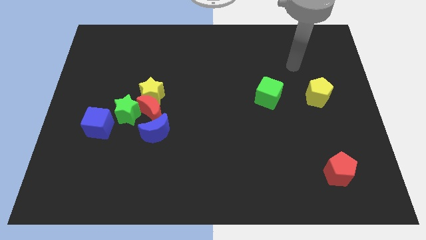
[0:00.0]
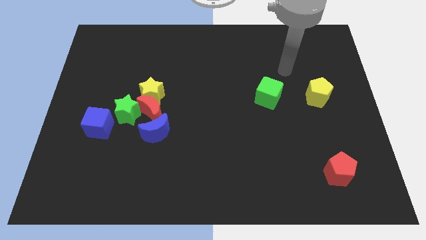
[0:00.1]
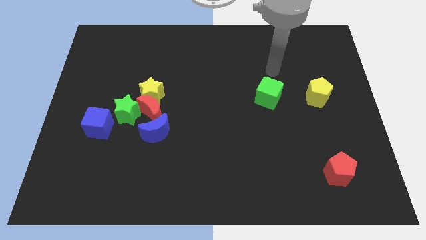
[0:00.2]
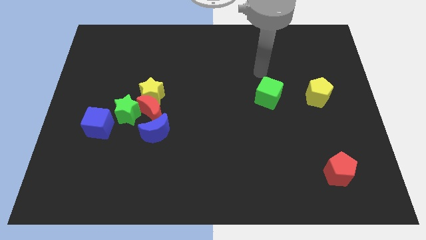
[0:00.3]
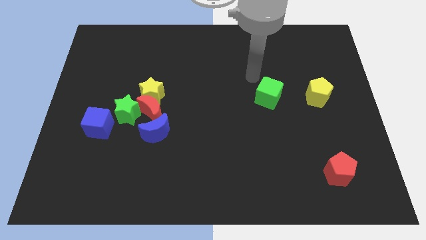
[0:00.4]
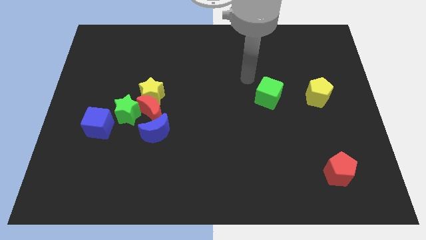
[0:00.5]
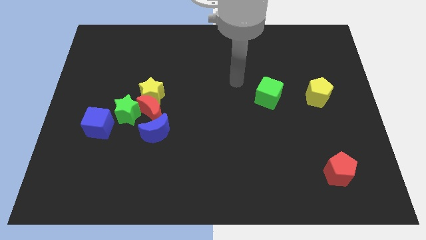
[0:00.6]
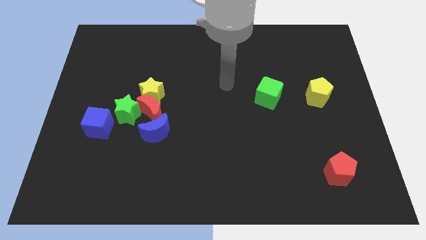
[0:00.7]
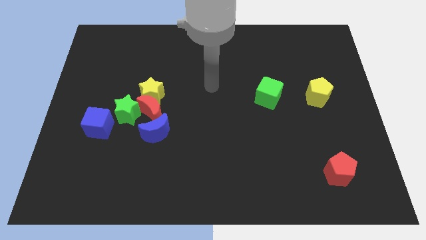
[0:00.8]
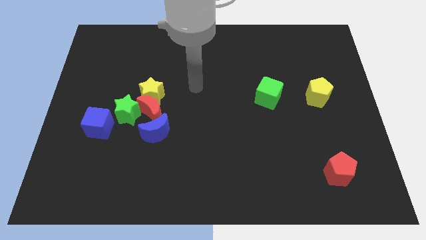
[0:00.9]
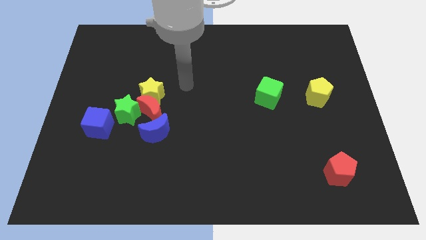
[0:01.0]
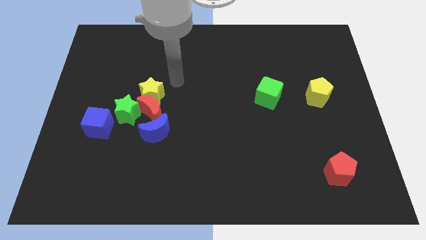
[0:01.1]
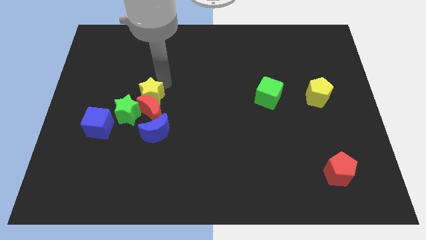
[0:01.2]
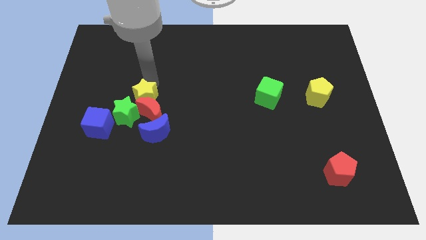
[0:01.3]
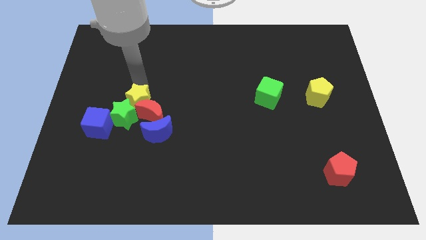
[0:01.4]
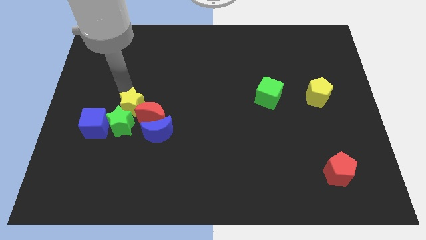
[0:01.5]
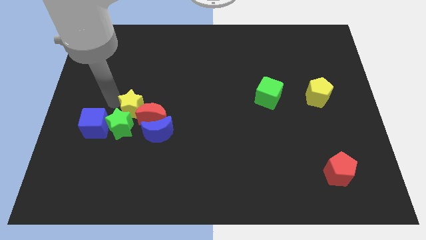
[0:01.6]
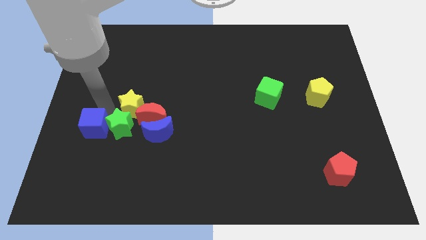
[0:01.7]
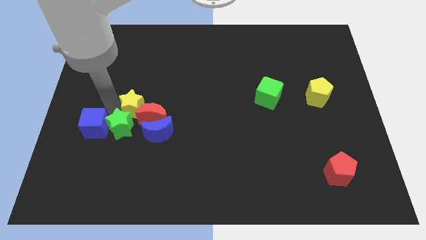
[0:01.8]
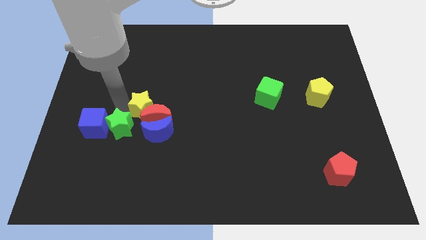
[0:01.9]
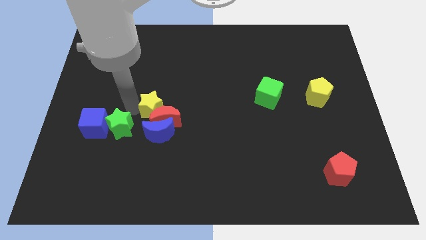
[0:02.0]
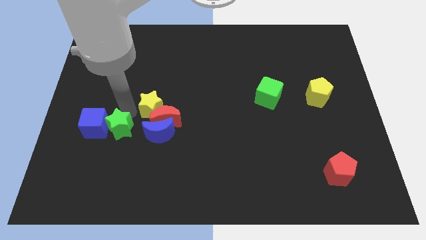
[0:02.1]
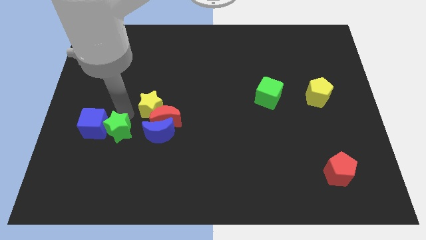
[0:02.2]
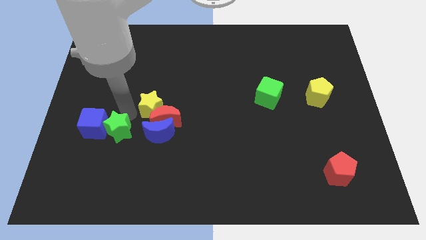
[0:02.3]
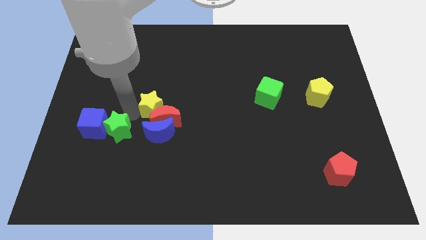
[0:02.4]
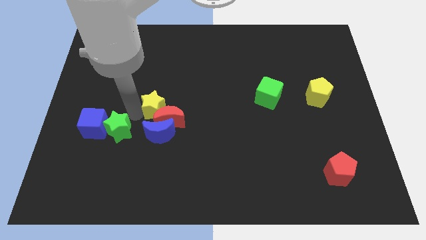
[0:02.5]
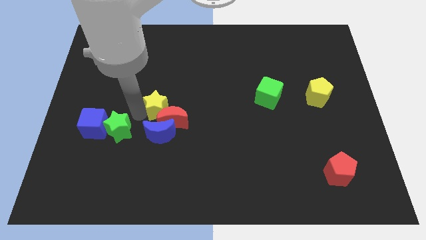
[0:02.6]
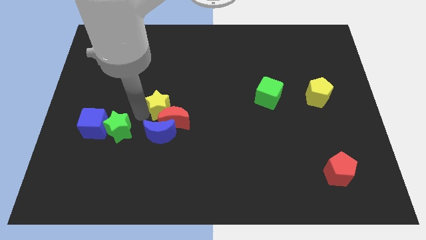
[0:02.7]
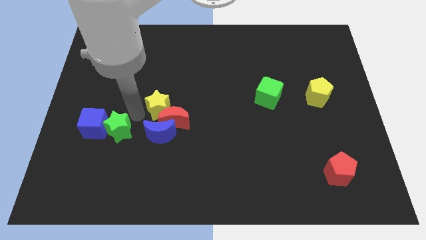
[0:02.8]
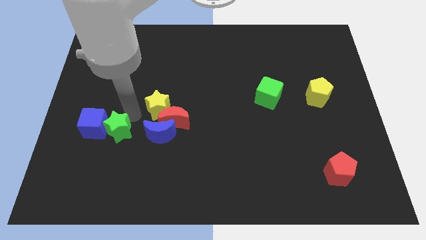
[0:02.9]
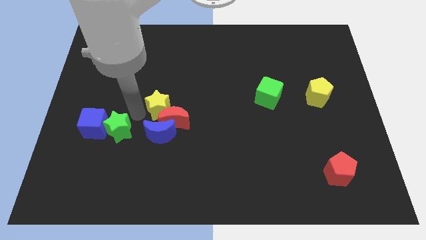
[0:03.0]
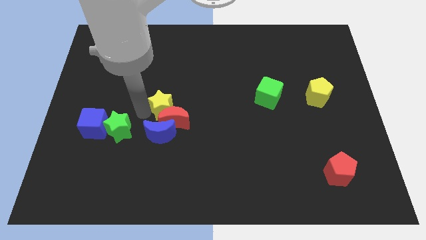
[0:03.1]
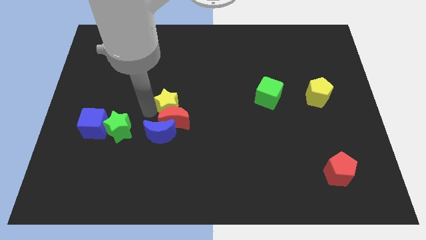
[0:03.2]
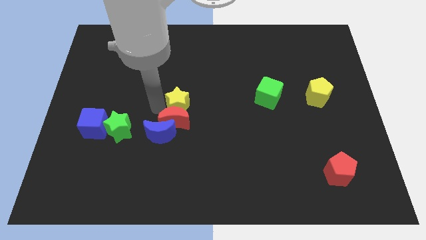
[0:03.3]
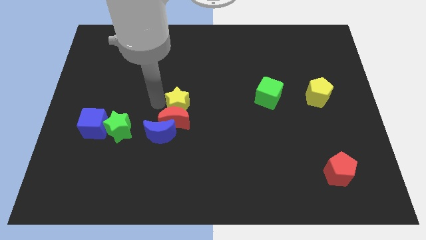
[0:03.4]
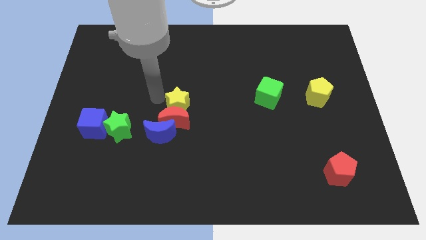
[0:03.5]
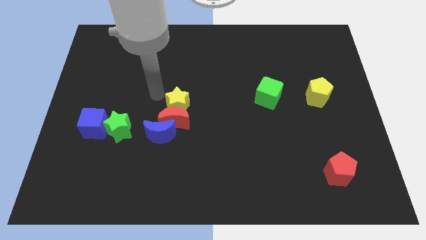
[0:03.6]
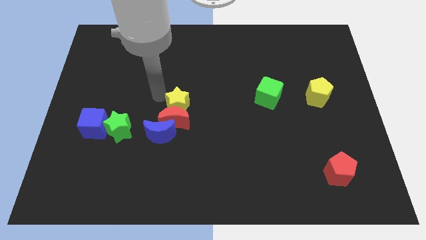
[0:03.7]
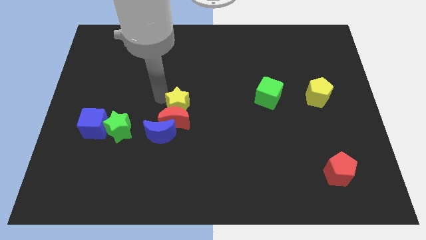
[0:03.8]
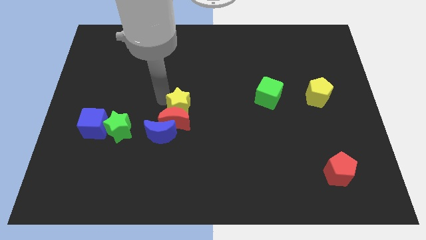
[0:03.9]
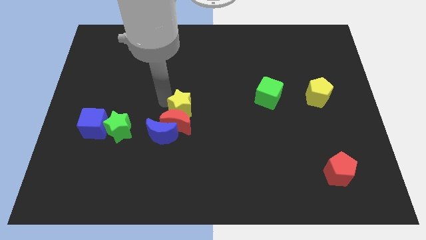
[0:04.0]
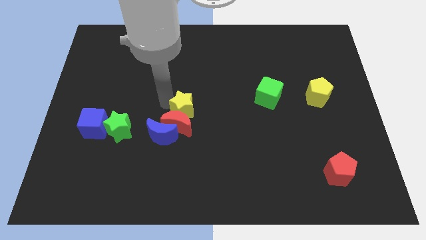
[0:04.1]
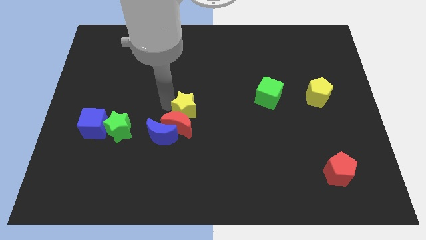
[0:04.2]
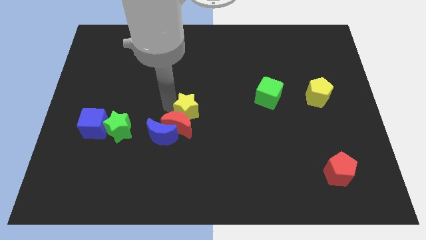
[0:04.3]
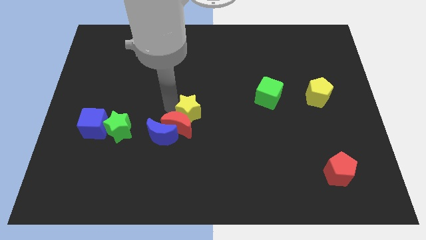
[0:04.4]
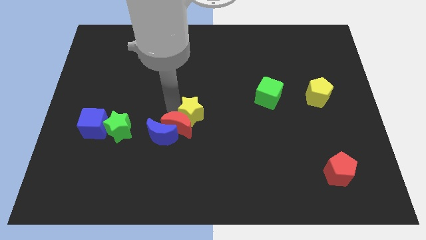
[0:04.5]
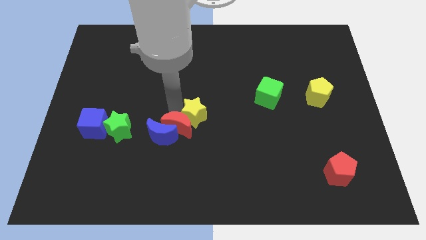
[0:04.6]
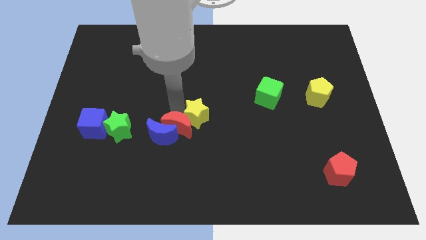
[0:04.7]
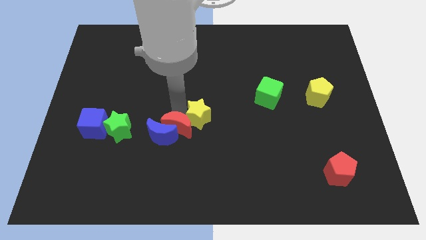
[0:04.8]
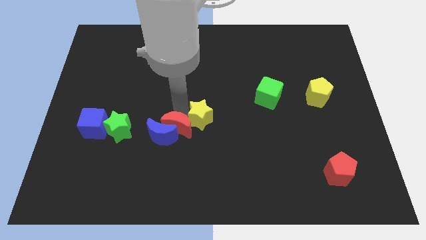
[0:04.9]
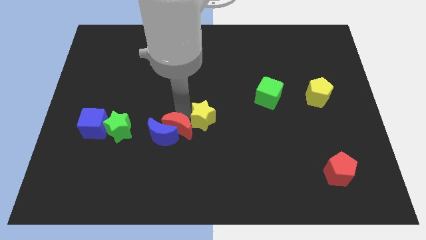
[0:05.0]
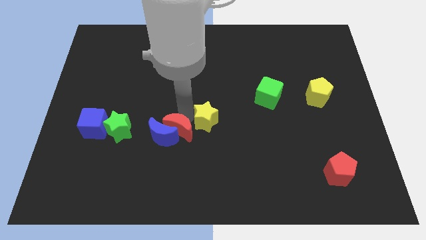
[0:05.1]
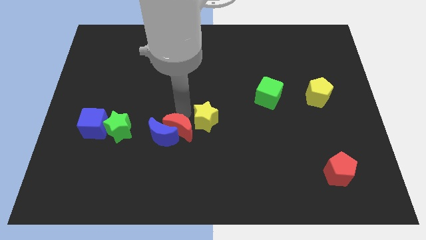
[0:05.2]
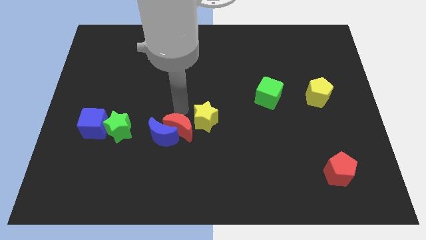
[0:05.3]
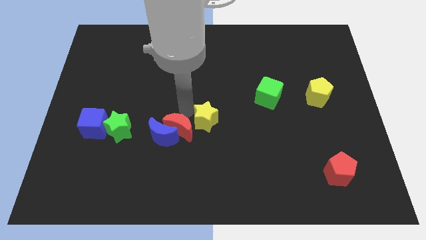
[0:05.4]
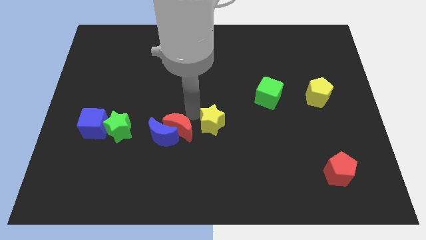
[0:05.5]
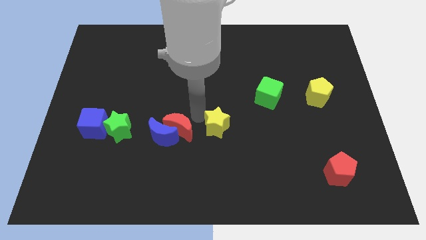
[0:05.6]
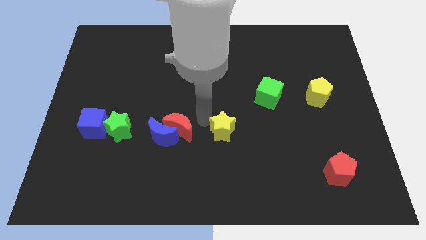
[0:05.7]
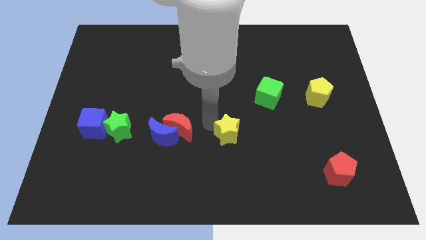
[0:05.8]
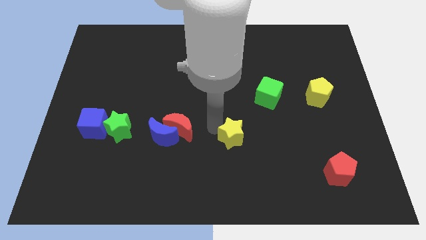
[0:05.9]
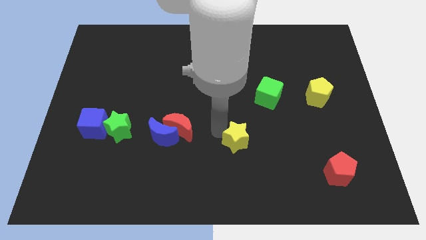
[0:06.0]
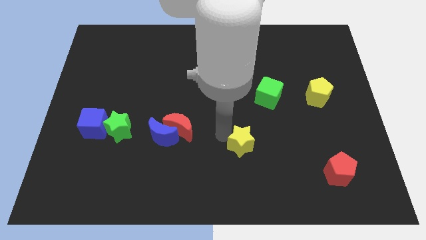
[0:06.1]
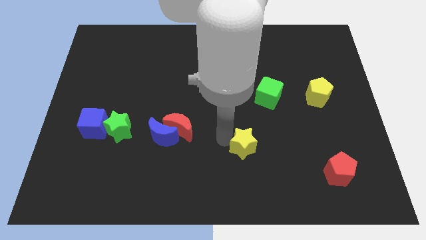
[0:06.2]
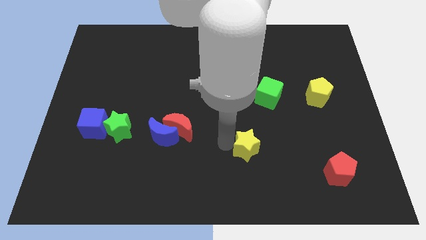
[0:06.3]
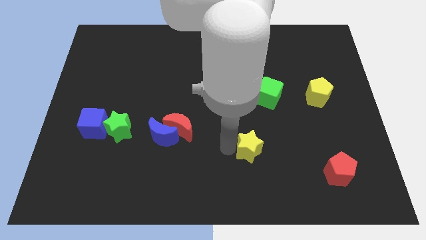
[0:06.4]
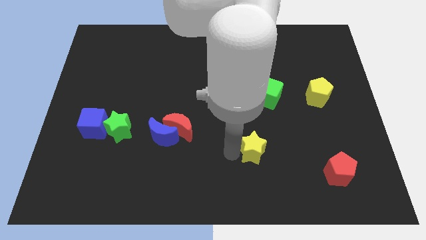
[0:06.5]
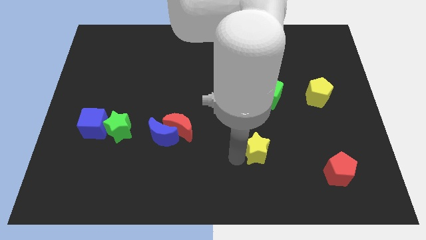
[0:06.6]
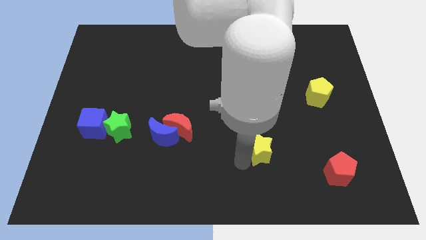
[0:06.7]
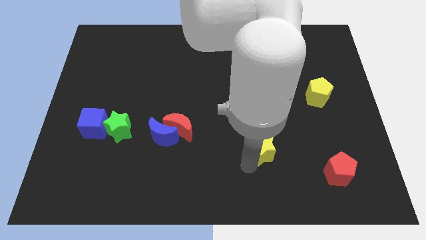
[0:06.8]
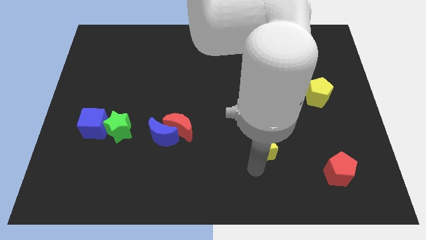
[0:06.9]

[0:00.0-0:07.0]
push the yellow star to the bottom side of the green cube

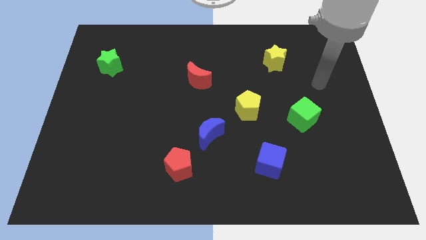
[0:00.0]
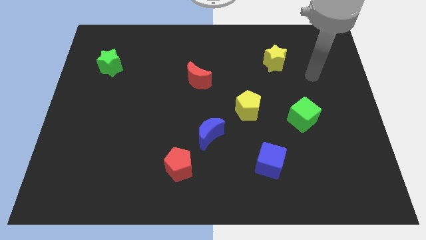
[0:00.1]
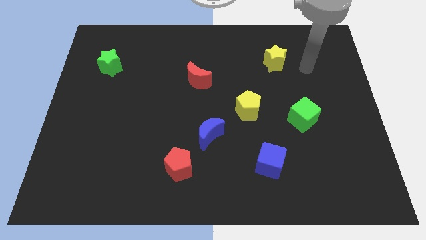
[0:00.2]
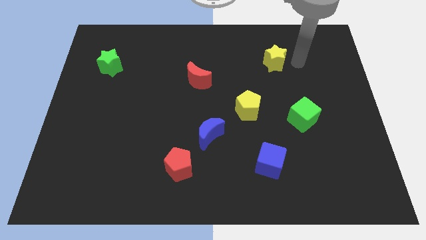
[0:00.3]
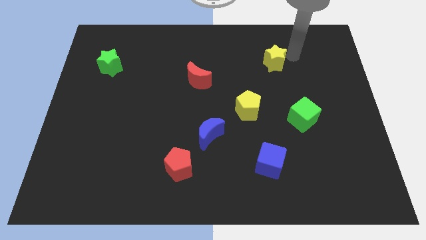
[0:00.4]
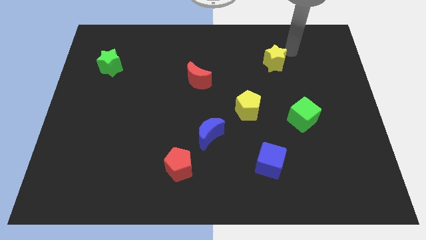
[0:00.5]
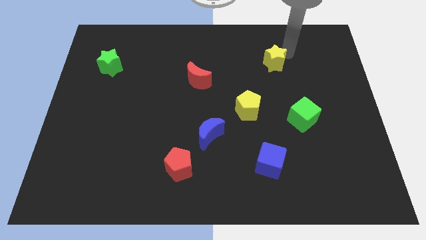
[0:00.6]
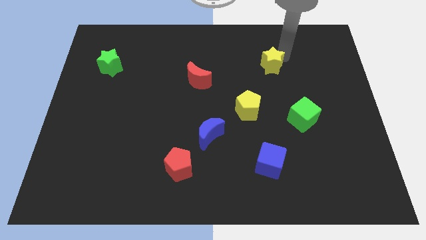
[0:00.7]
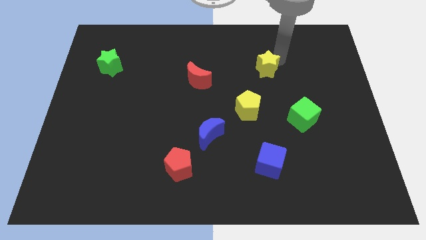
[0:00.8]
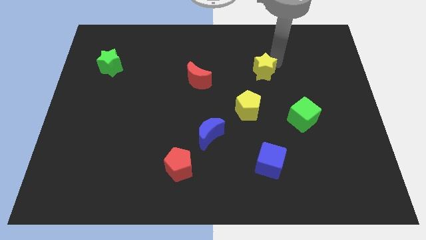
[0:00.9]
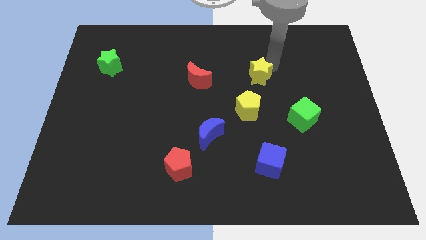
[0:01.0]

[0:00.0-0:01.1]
put the yellow star to the right of the red moon
